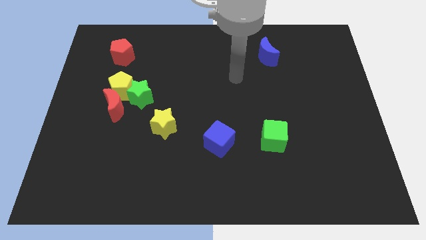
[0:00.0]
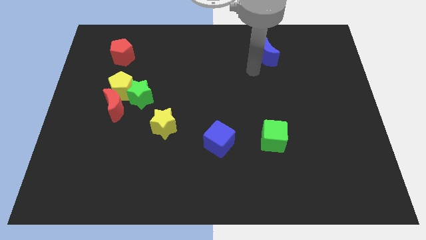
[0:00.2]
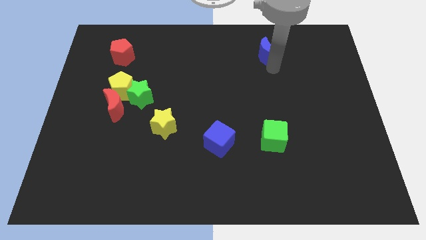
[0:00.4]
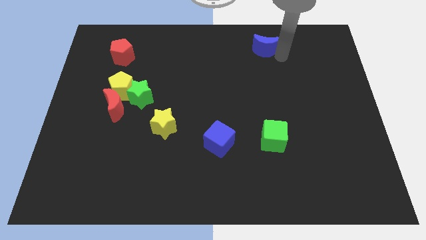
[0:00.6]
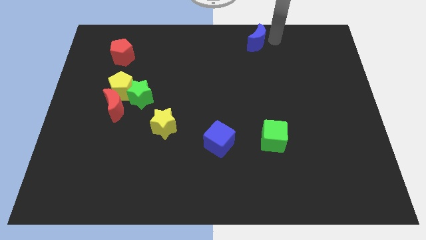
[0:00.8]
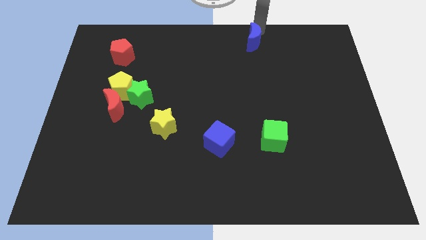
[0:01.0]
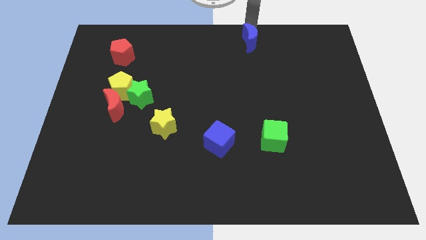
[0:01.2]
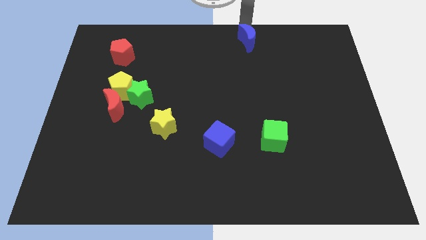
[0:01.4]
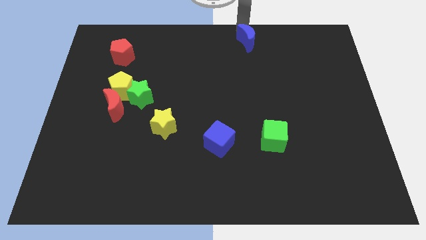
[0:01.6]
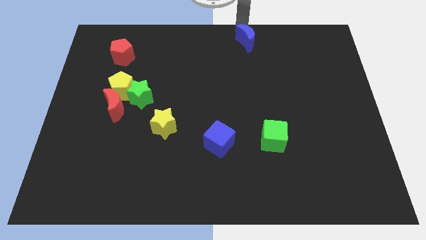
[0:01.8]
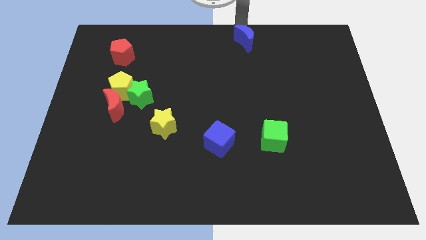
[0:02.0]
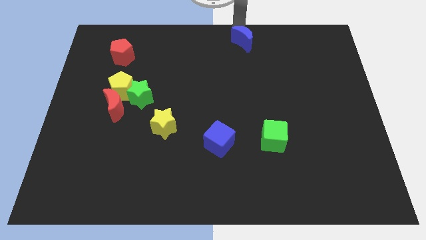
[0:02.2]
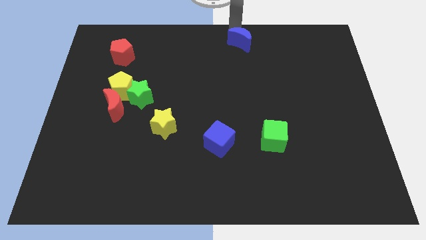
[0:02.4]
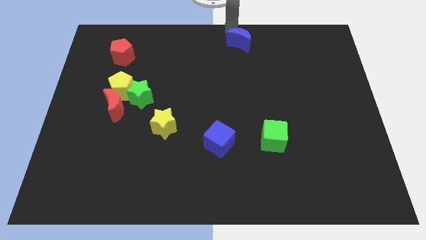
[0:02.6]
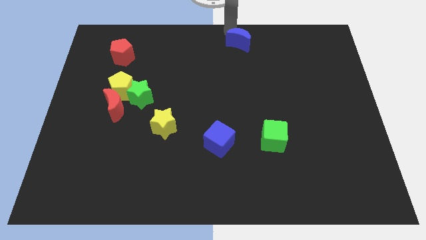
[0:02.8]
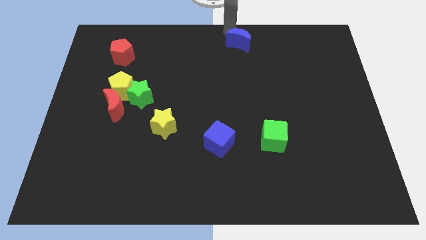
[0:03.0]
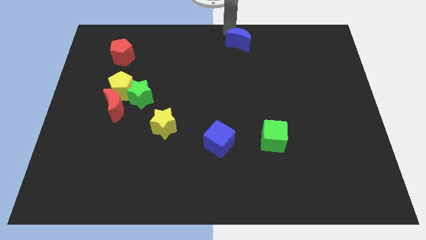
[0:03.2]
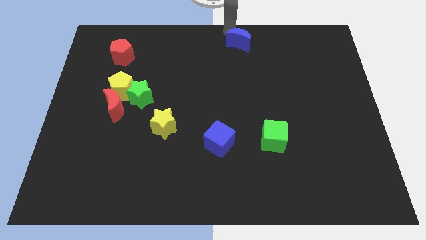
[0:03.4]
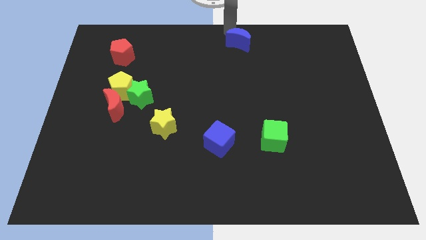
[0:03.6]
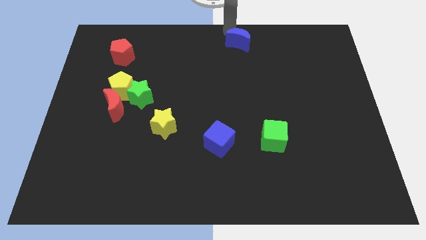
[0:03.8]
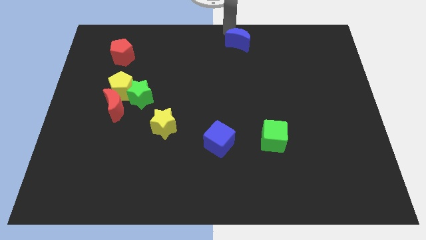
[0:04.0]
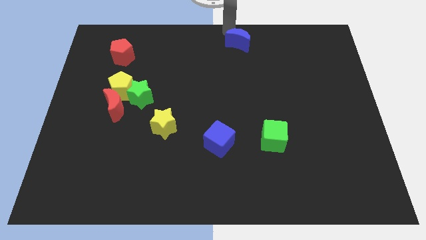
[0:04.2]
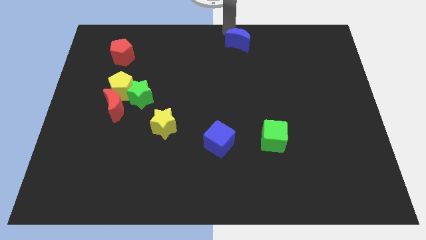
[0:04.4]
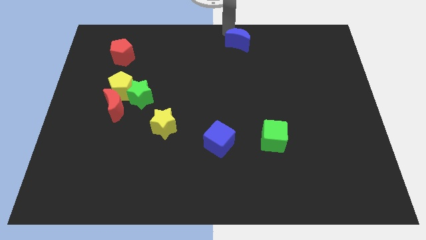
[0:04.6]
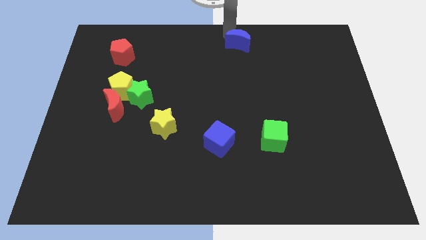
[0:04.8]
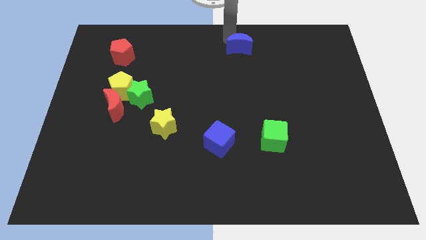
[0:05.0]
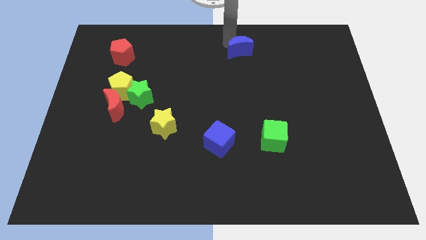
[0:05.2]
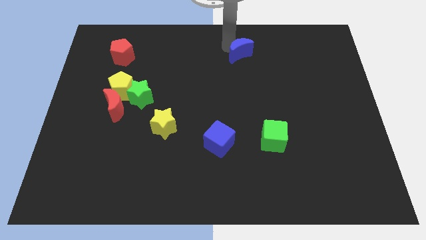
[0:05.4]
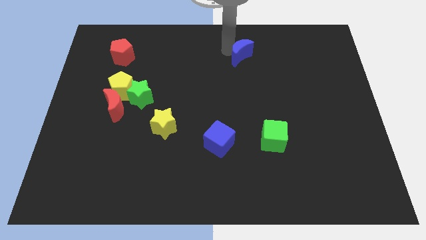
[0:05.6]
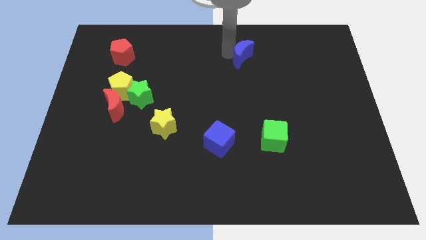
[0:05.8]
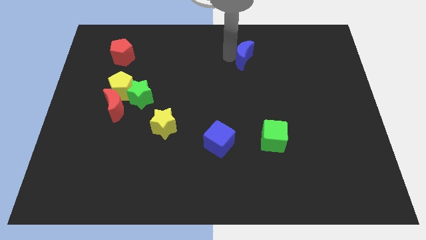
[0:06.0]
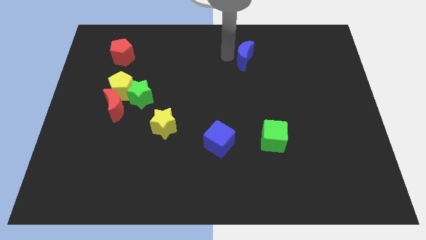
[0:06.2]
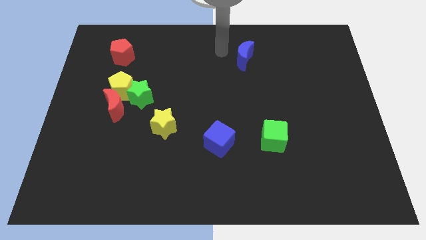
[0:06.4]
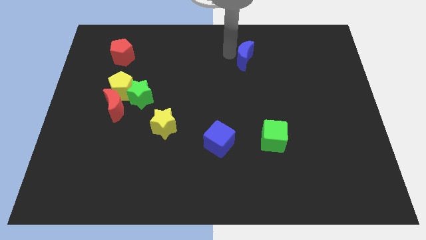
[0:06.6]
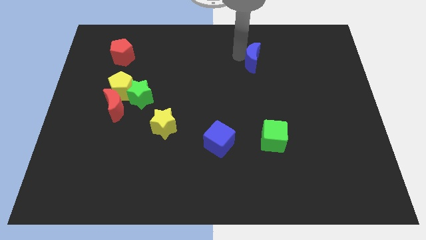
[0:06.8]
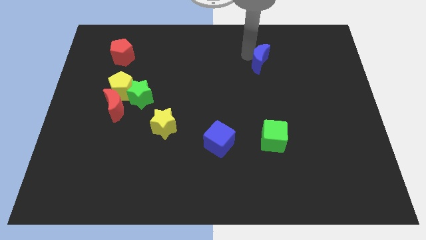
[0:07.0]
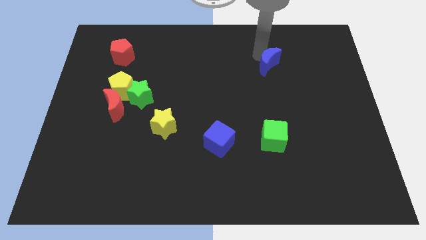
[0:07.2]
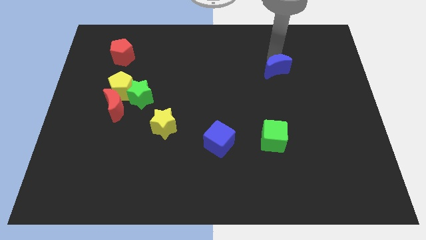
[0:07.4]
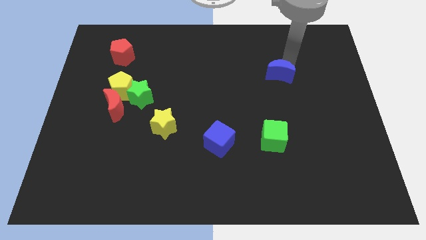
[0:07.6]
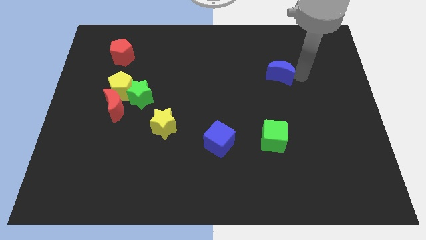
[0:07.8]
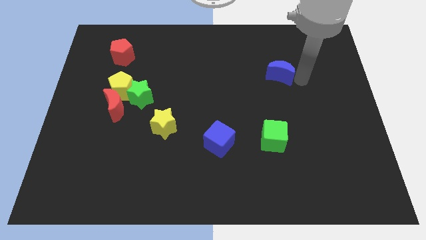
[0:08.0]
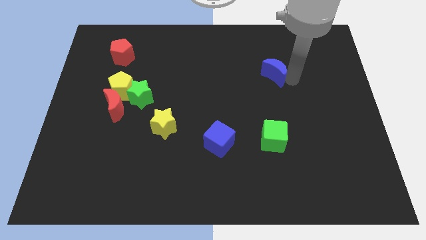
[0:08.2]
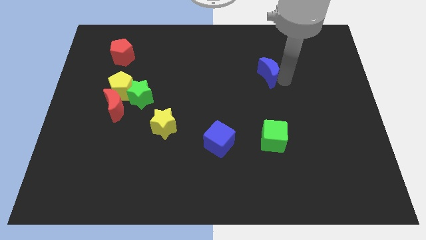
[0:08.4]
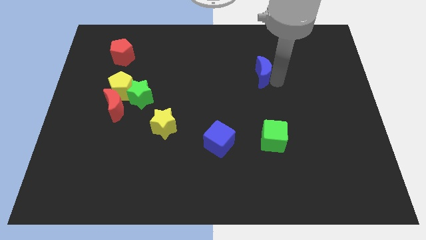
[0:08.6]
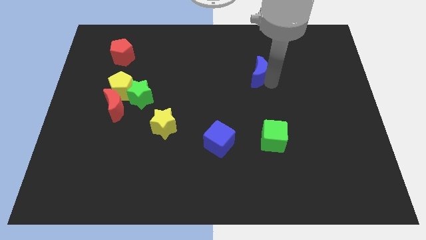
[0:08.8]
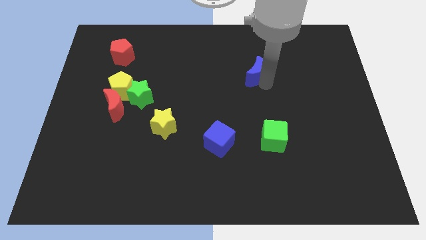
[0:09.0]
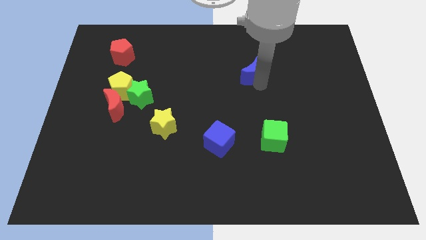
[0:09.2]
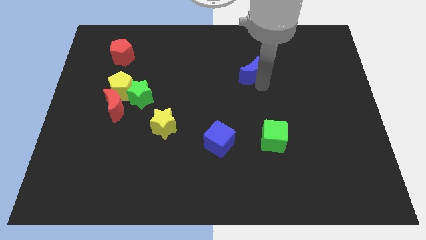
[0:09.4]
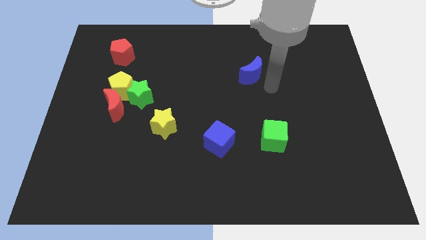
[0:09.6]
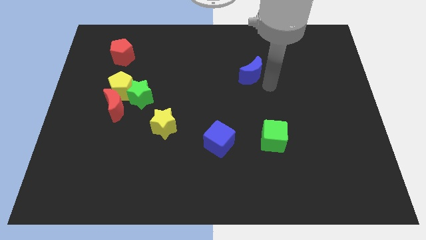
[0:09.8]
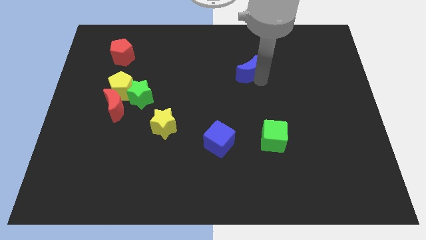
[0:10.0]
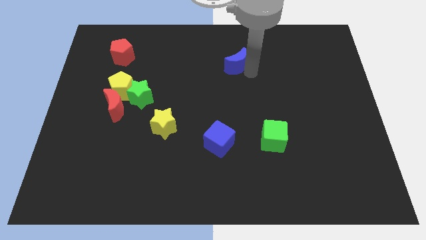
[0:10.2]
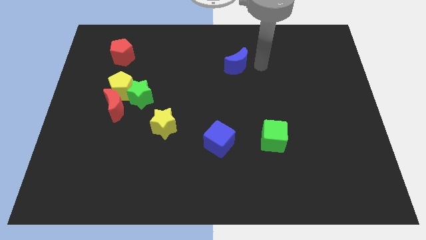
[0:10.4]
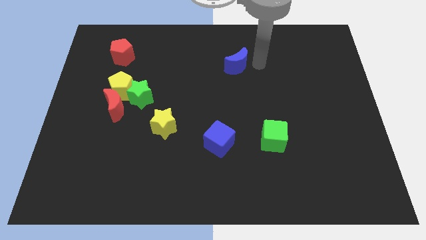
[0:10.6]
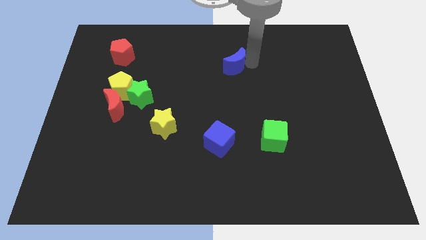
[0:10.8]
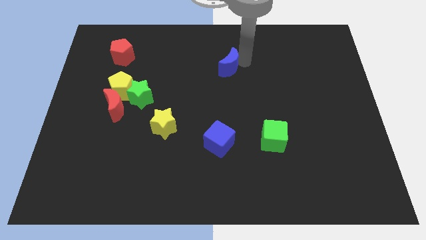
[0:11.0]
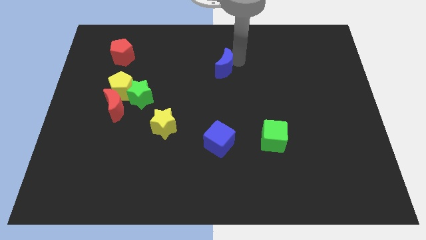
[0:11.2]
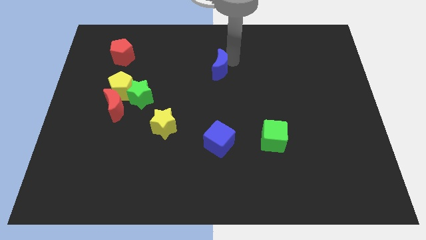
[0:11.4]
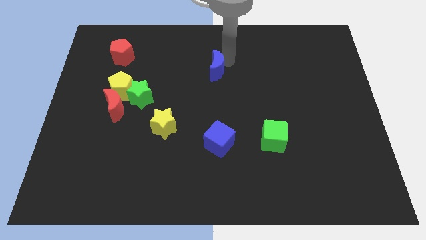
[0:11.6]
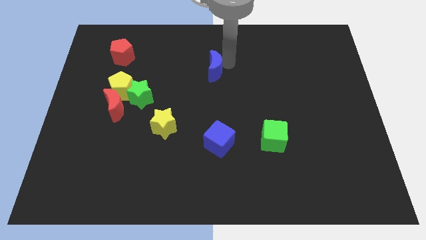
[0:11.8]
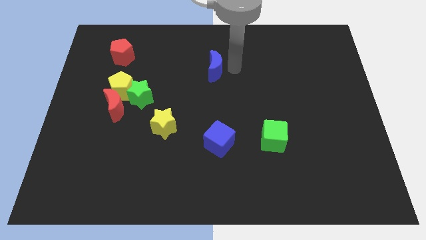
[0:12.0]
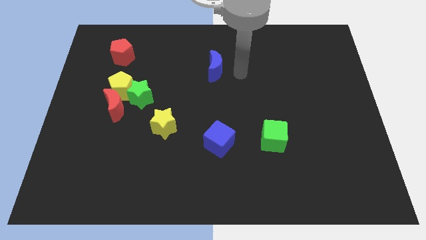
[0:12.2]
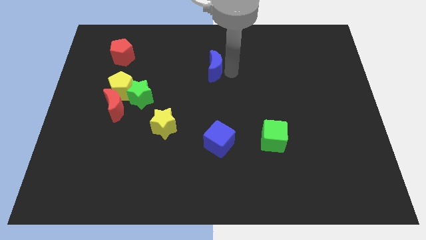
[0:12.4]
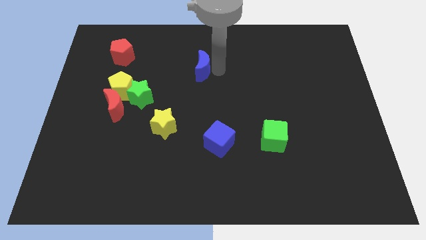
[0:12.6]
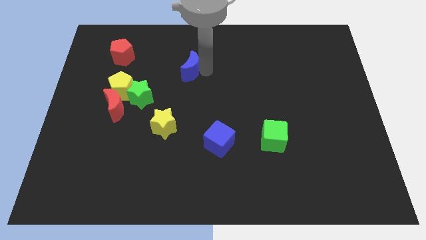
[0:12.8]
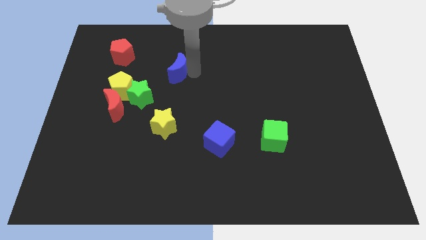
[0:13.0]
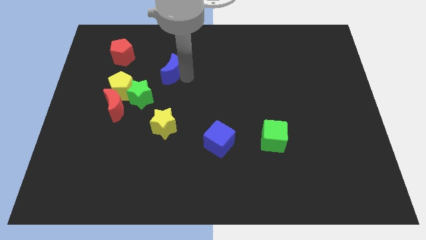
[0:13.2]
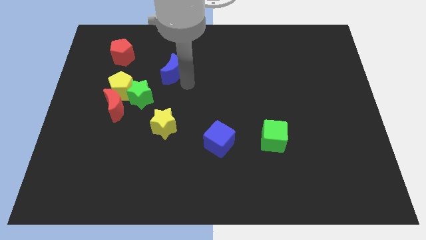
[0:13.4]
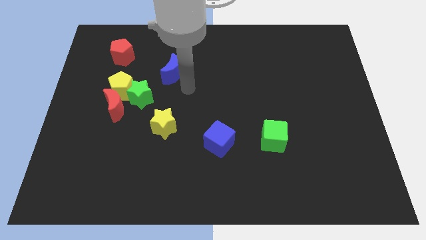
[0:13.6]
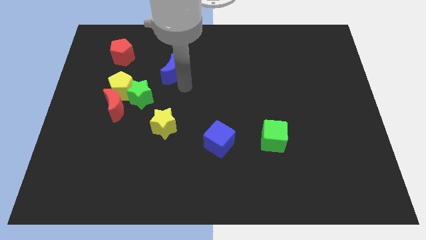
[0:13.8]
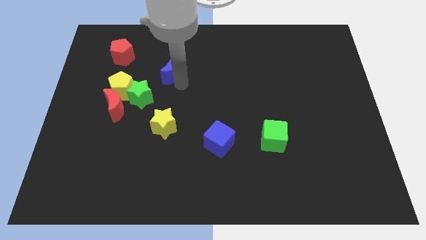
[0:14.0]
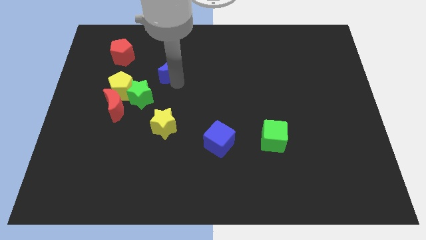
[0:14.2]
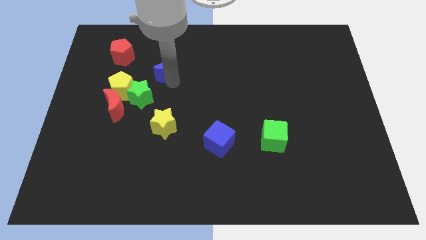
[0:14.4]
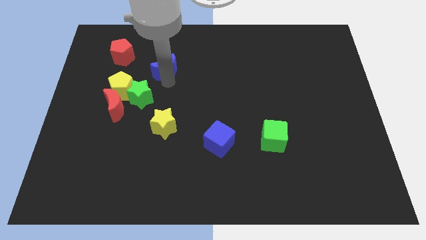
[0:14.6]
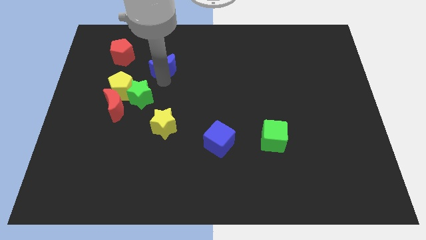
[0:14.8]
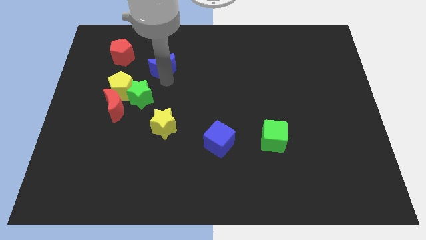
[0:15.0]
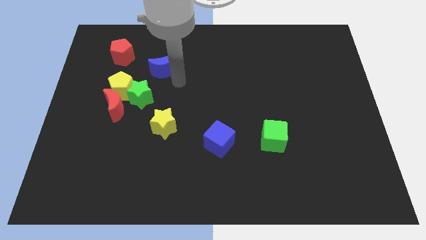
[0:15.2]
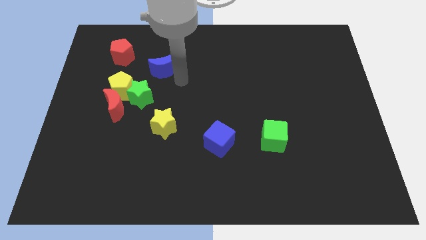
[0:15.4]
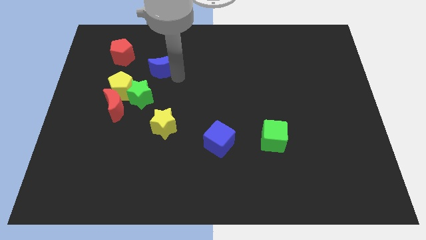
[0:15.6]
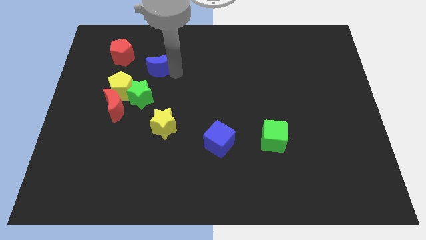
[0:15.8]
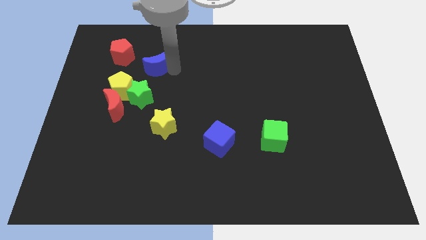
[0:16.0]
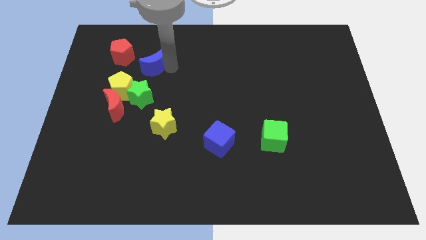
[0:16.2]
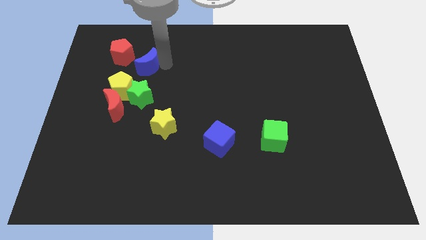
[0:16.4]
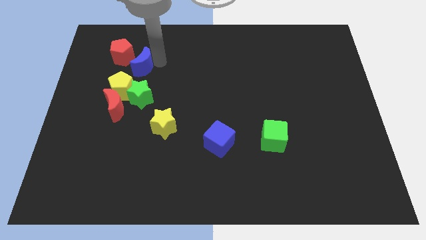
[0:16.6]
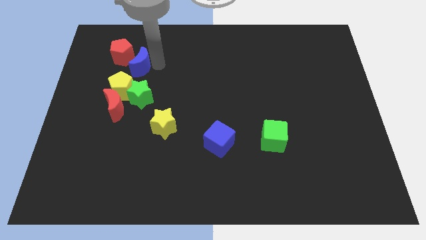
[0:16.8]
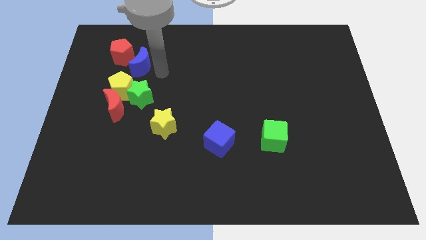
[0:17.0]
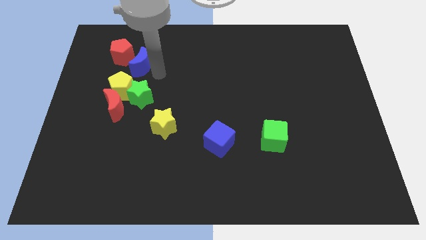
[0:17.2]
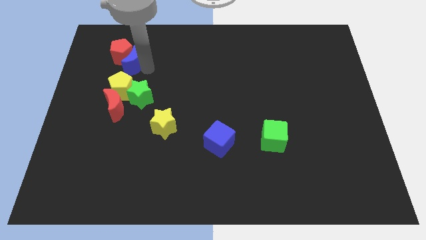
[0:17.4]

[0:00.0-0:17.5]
put the blue moon close to the red pentagon

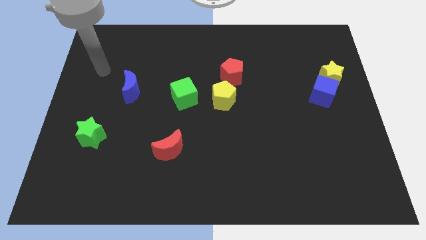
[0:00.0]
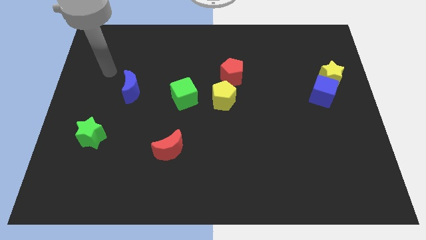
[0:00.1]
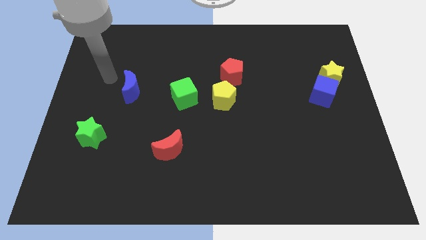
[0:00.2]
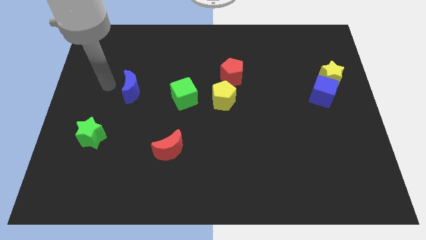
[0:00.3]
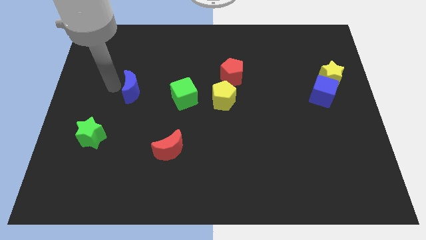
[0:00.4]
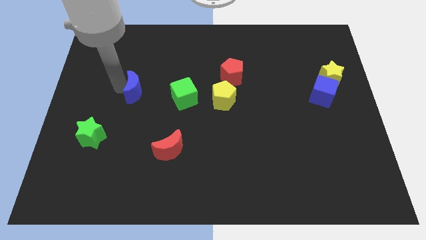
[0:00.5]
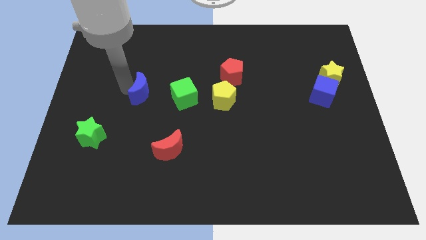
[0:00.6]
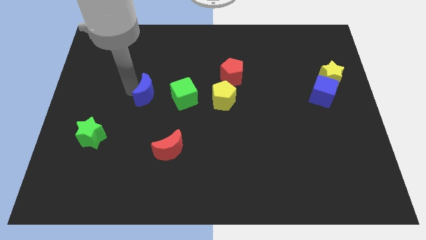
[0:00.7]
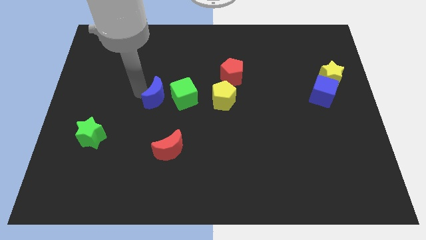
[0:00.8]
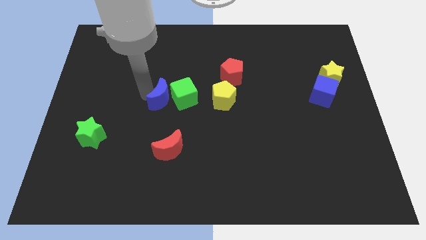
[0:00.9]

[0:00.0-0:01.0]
push the blue moon next to the green cube
